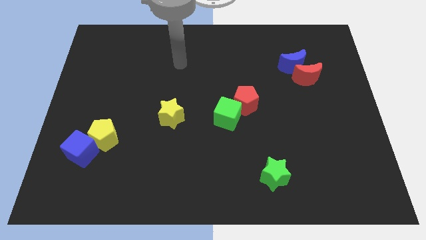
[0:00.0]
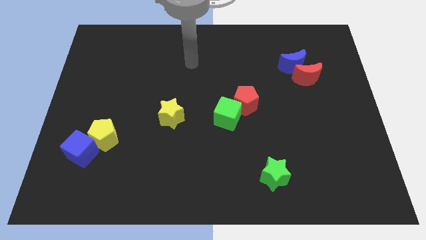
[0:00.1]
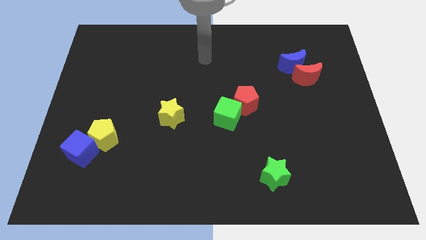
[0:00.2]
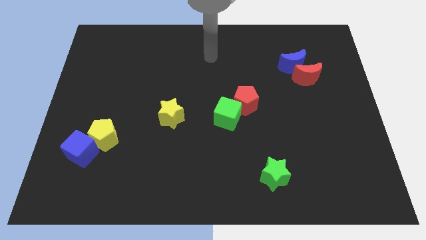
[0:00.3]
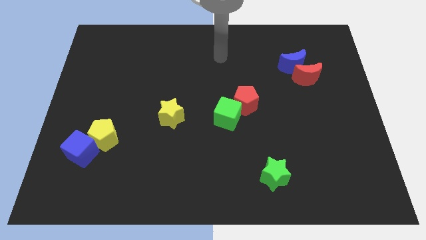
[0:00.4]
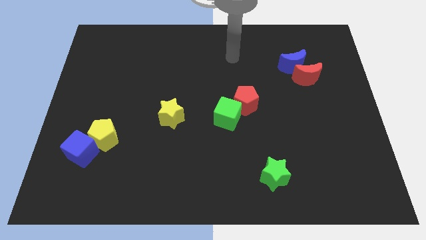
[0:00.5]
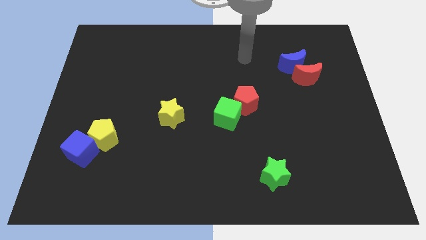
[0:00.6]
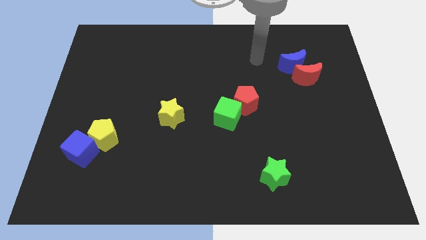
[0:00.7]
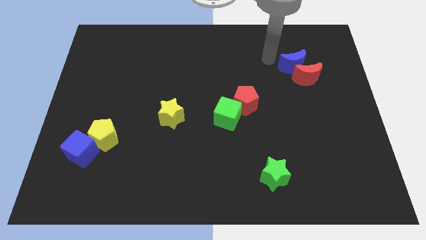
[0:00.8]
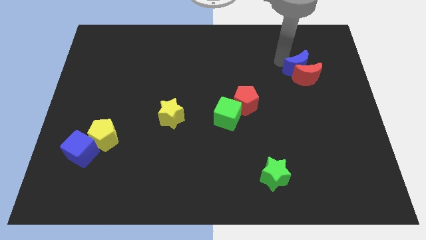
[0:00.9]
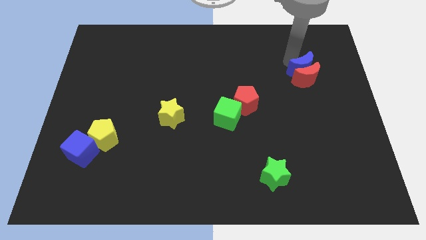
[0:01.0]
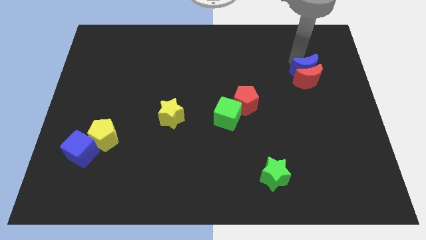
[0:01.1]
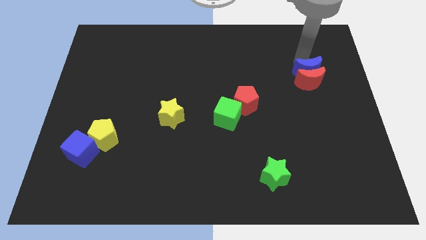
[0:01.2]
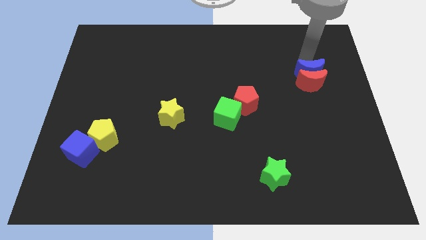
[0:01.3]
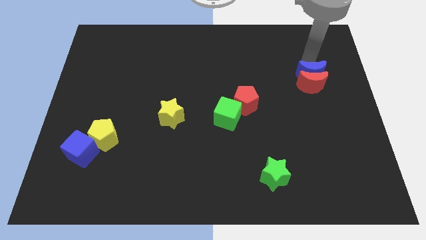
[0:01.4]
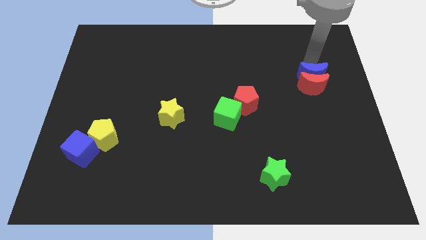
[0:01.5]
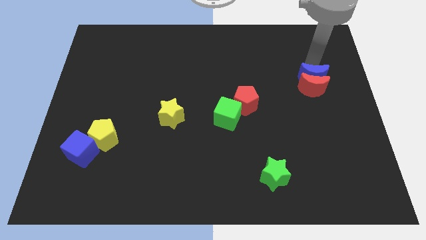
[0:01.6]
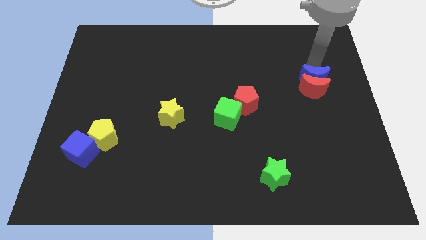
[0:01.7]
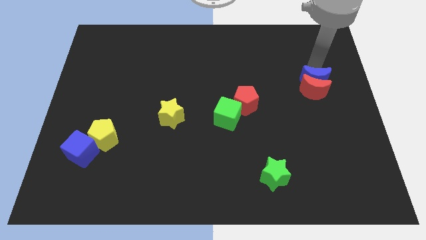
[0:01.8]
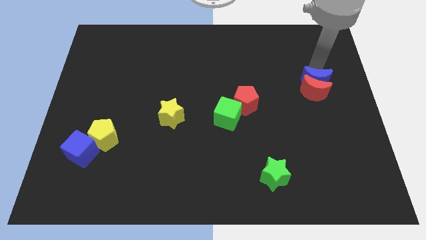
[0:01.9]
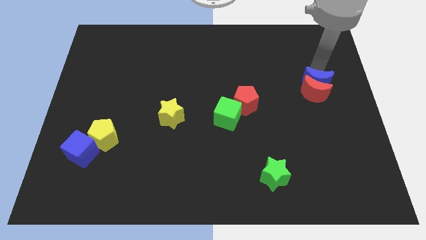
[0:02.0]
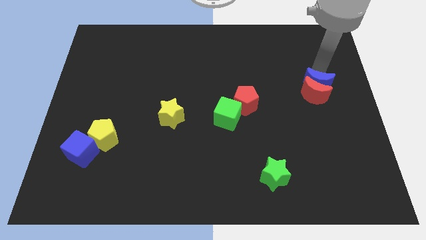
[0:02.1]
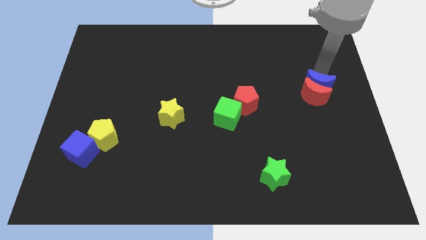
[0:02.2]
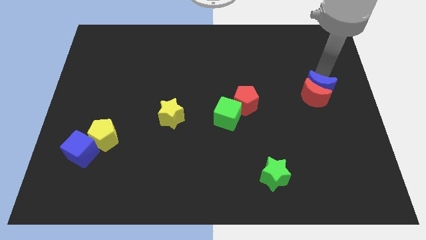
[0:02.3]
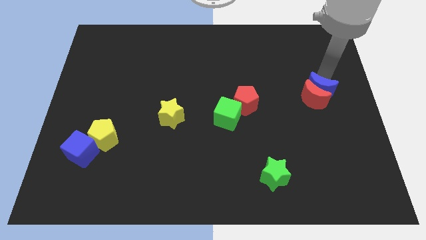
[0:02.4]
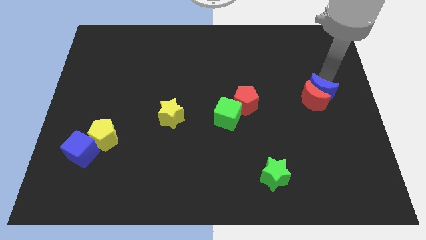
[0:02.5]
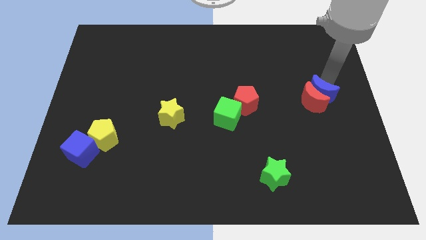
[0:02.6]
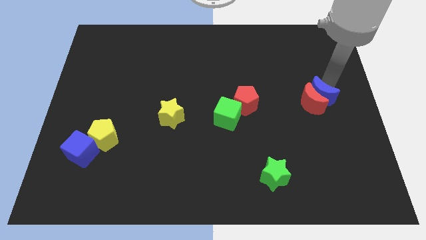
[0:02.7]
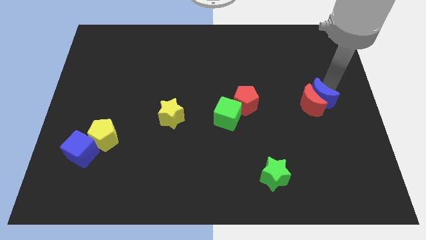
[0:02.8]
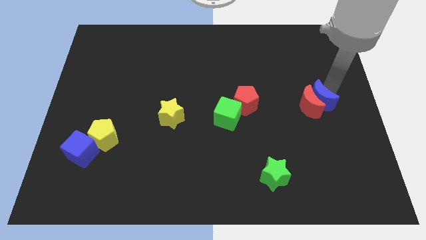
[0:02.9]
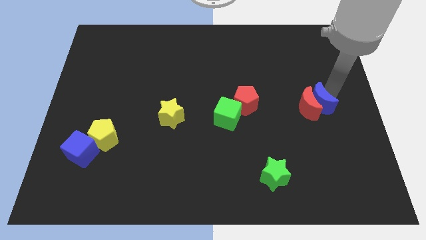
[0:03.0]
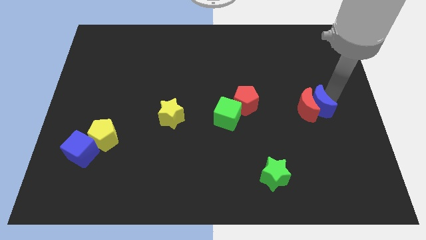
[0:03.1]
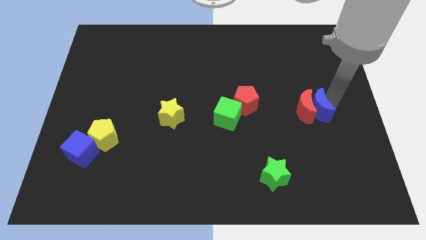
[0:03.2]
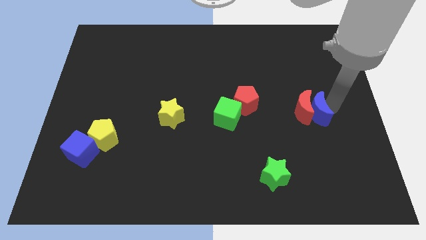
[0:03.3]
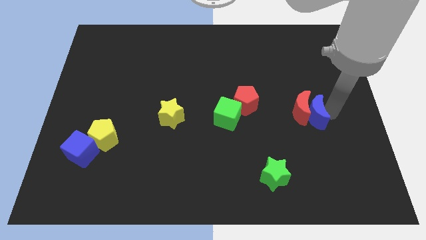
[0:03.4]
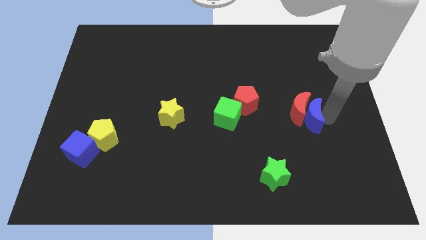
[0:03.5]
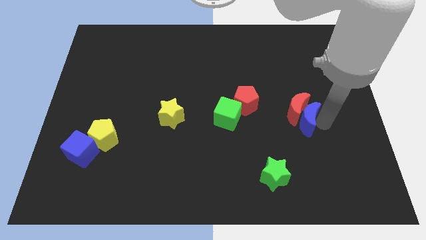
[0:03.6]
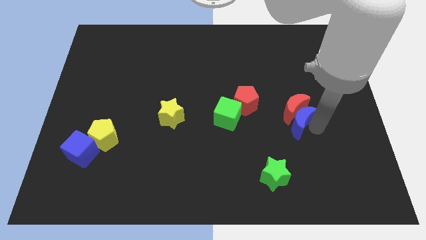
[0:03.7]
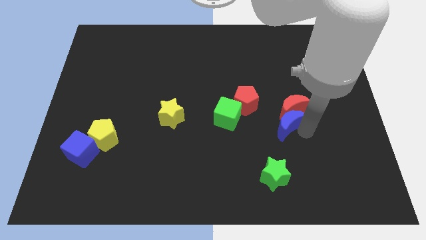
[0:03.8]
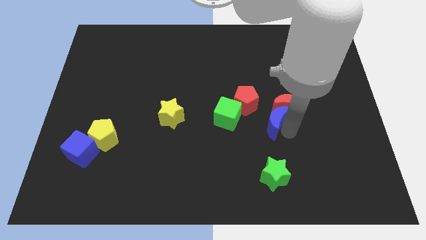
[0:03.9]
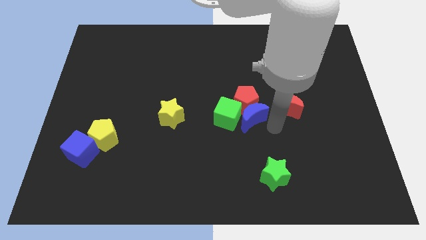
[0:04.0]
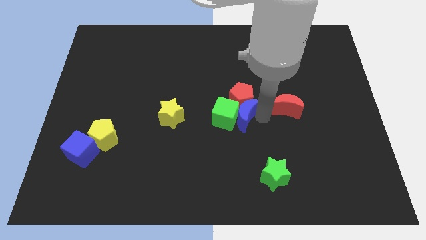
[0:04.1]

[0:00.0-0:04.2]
move the red moon away from the blue moon

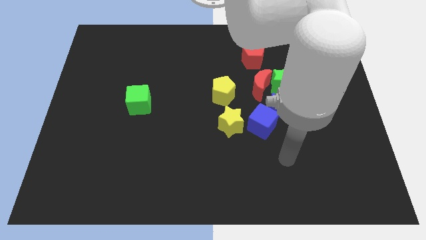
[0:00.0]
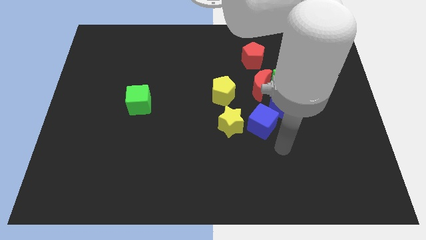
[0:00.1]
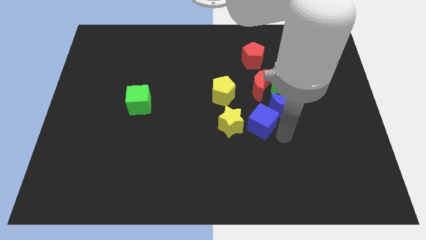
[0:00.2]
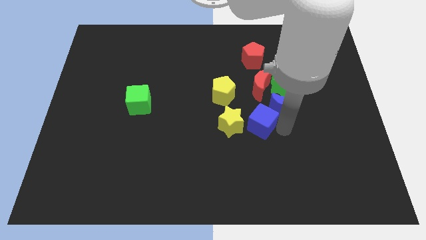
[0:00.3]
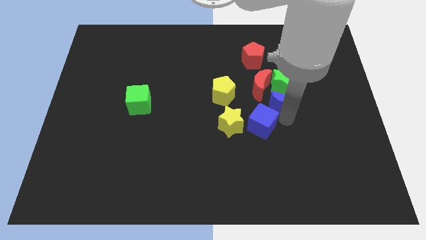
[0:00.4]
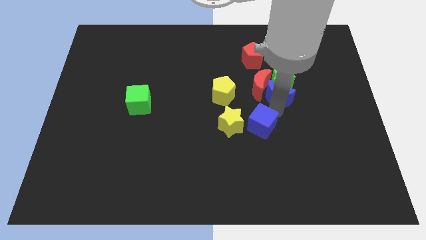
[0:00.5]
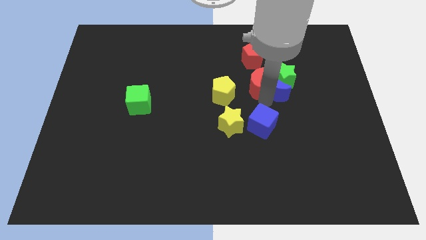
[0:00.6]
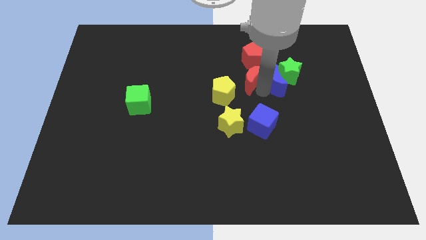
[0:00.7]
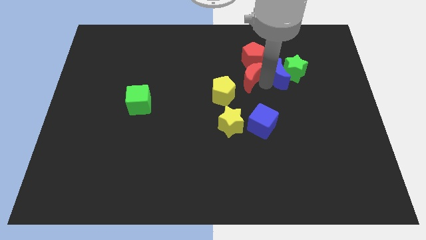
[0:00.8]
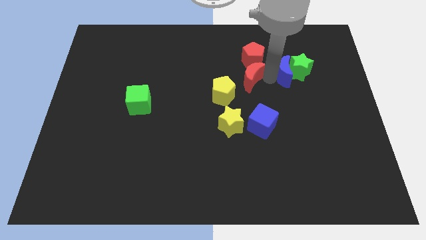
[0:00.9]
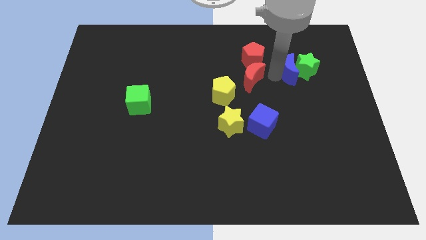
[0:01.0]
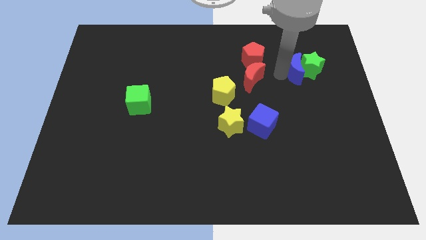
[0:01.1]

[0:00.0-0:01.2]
move the green star away from the red moon and blue moon

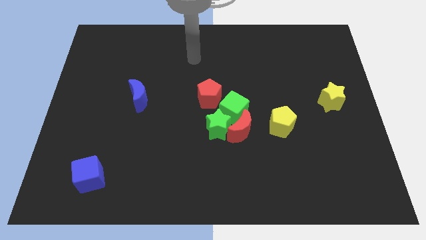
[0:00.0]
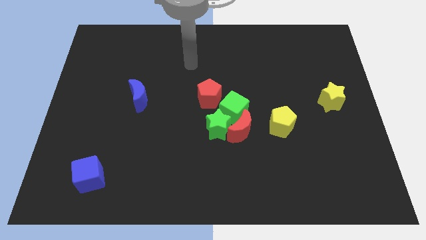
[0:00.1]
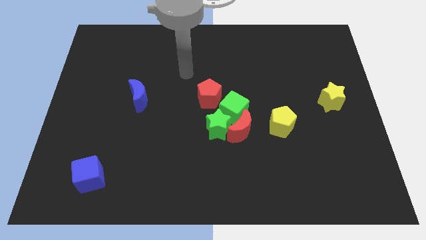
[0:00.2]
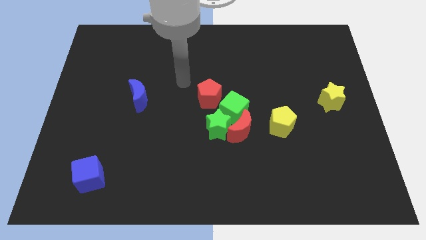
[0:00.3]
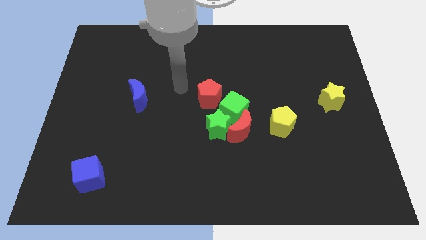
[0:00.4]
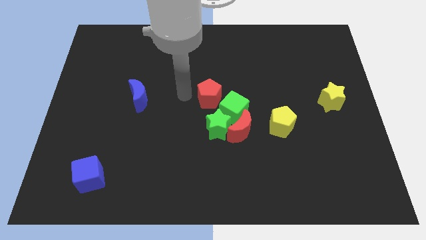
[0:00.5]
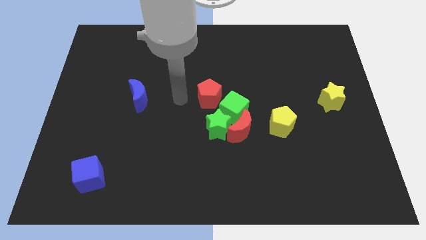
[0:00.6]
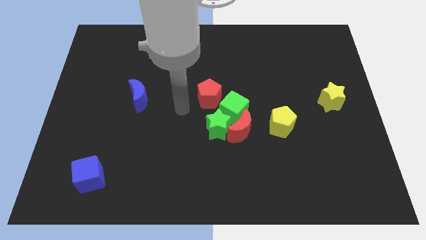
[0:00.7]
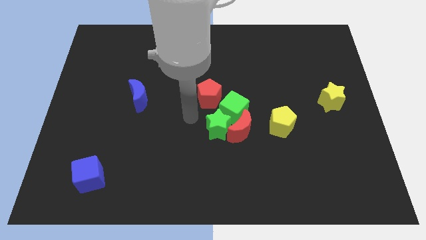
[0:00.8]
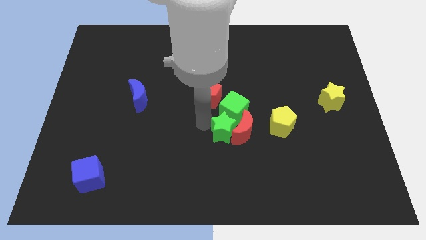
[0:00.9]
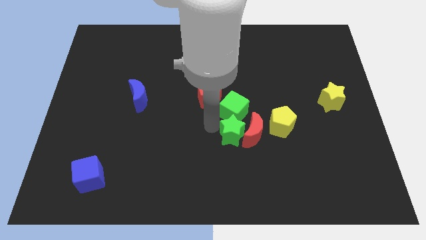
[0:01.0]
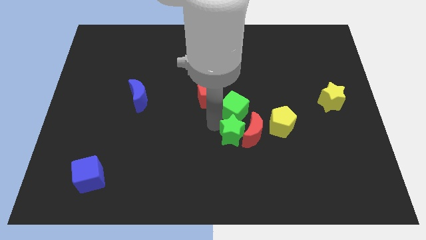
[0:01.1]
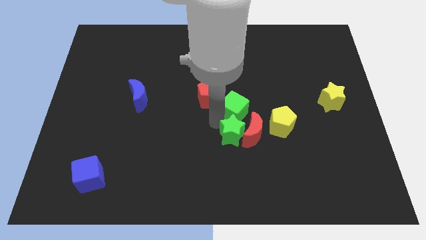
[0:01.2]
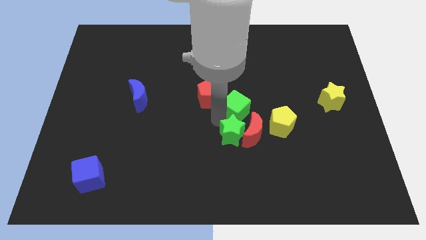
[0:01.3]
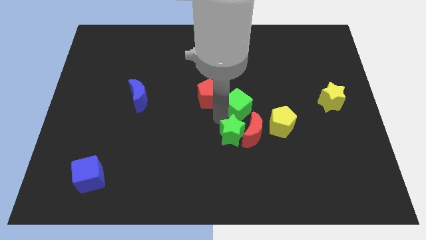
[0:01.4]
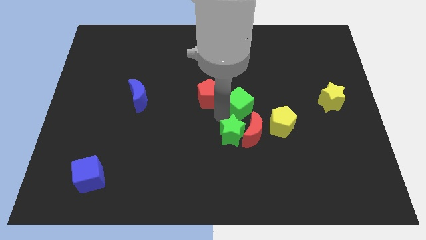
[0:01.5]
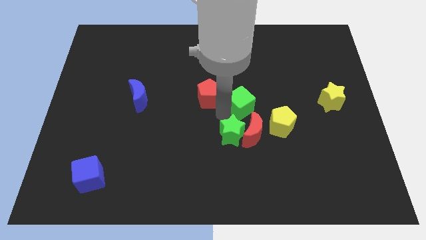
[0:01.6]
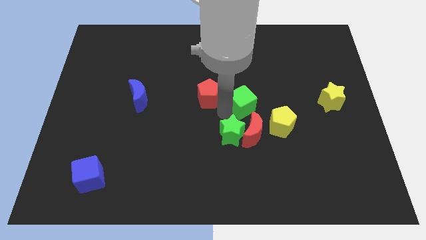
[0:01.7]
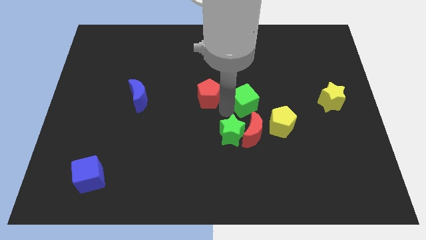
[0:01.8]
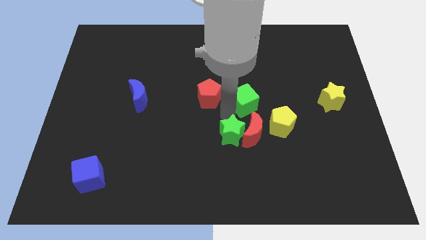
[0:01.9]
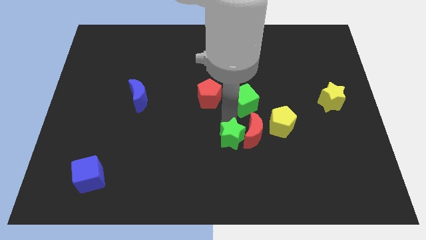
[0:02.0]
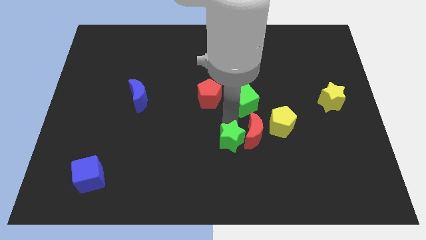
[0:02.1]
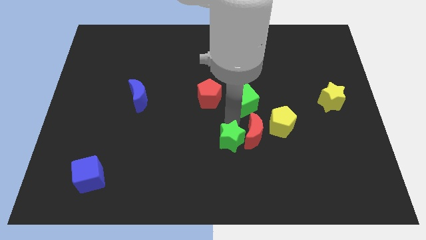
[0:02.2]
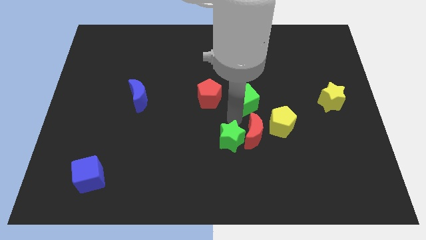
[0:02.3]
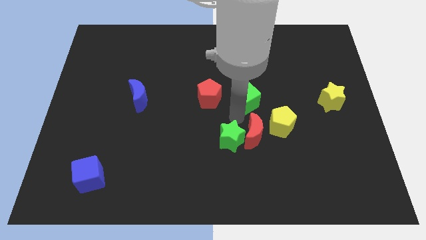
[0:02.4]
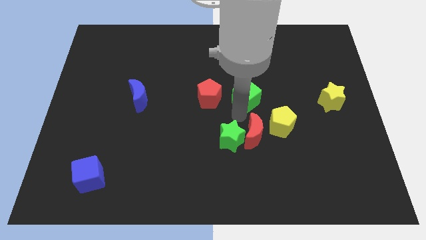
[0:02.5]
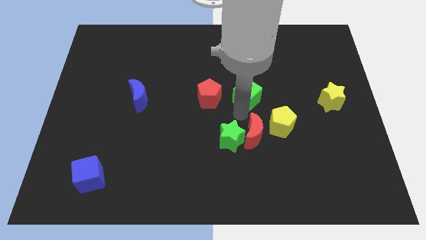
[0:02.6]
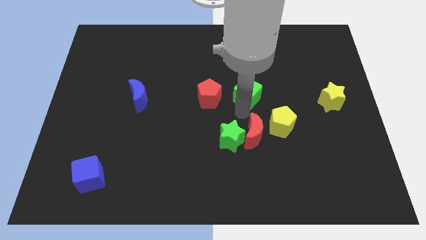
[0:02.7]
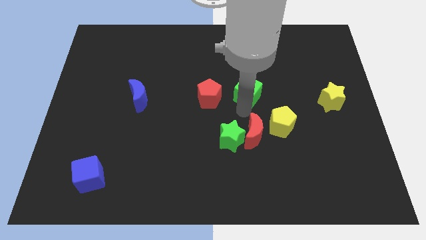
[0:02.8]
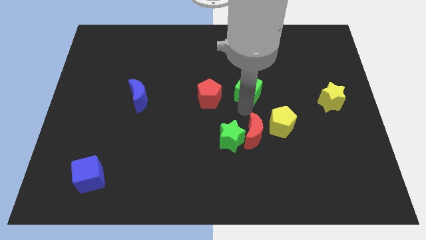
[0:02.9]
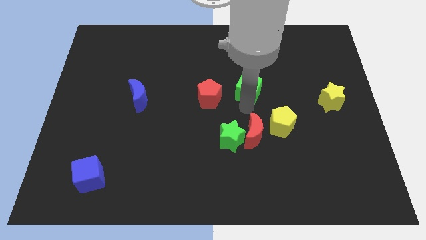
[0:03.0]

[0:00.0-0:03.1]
move the green cube away from the group

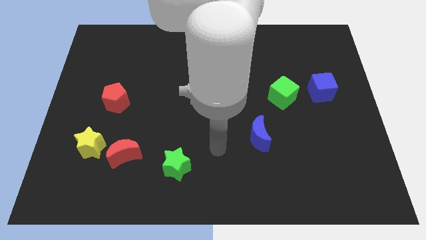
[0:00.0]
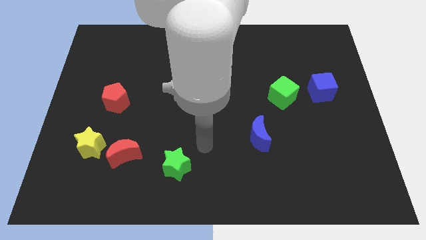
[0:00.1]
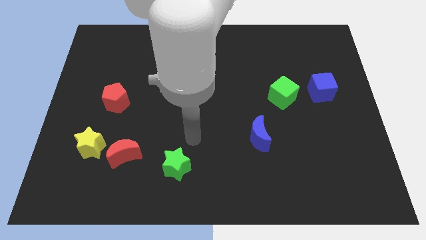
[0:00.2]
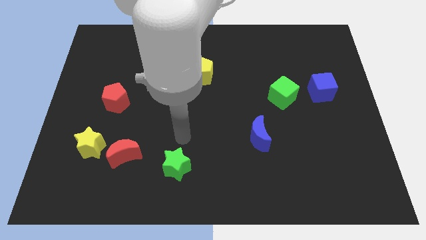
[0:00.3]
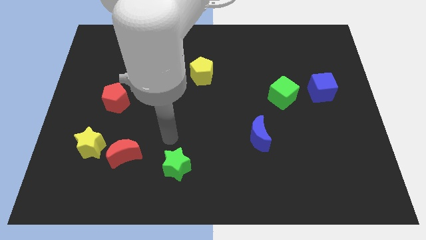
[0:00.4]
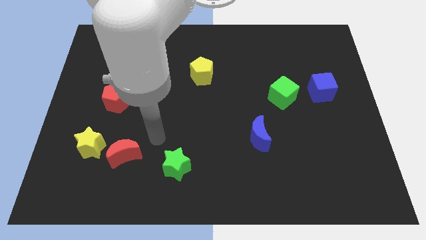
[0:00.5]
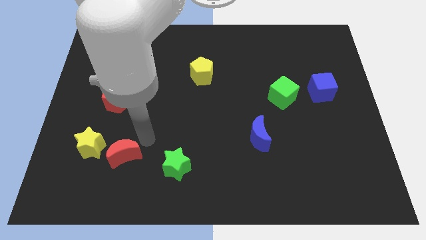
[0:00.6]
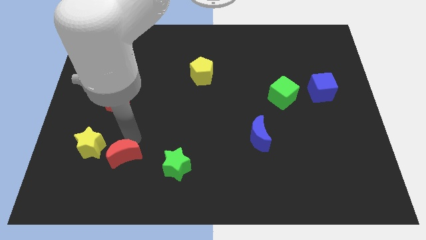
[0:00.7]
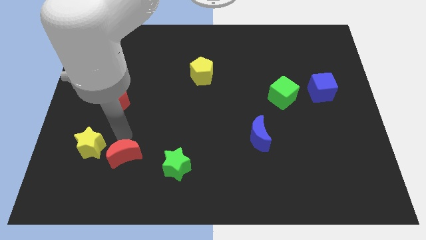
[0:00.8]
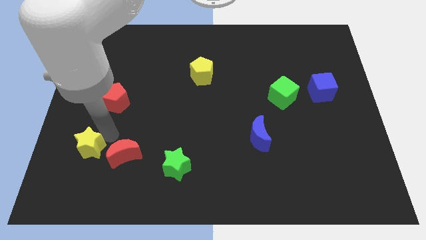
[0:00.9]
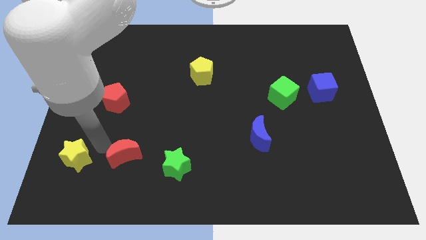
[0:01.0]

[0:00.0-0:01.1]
move the red moon away from the yellow star

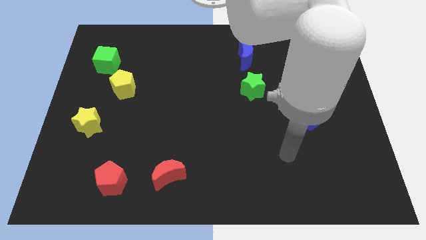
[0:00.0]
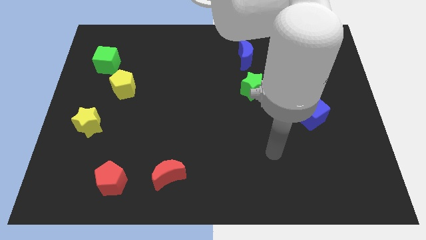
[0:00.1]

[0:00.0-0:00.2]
separate the green cube from the yellow pentagon
